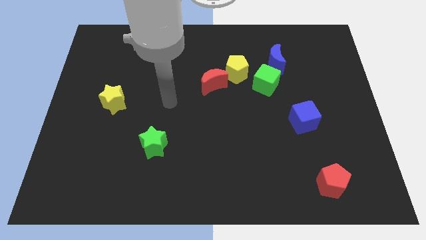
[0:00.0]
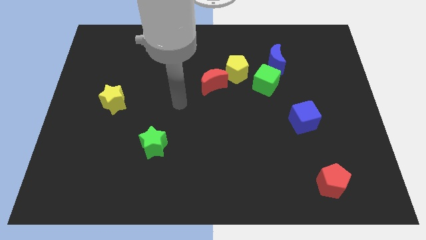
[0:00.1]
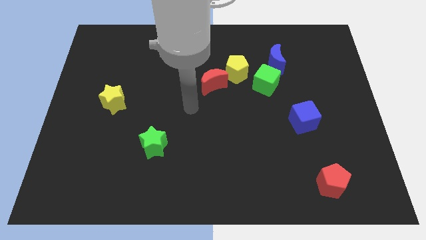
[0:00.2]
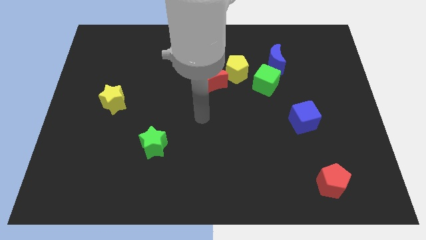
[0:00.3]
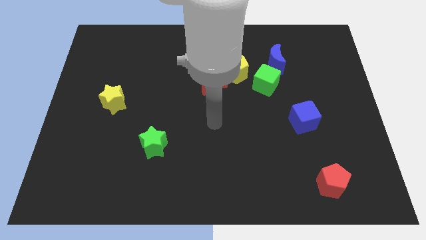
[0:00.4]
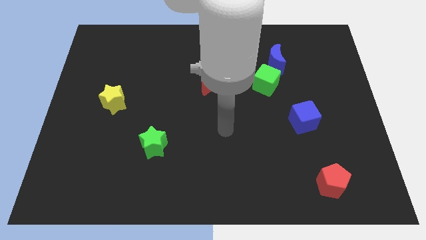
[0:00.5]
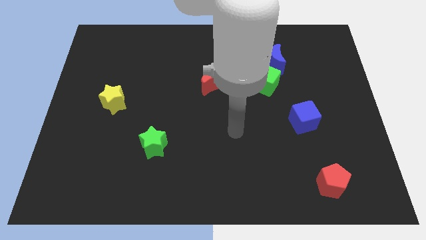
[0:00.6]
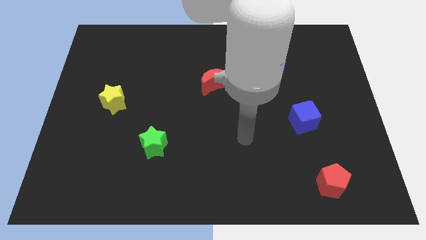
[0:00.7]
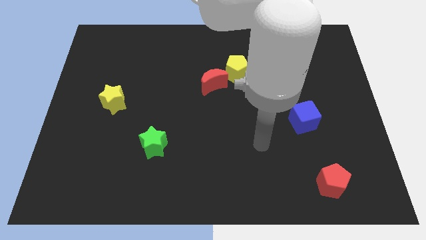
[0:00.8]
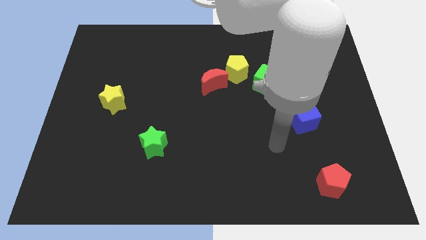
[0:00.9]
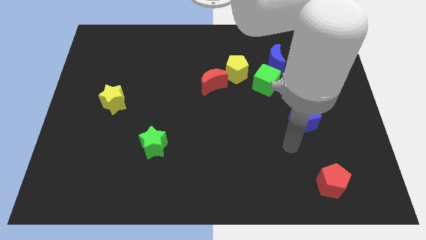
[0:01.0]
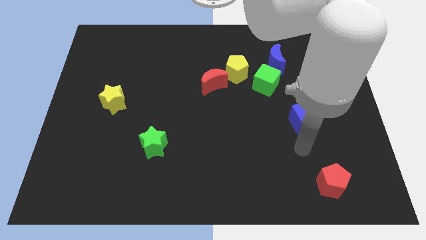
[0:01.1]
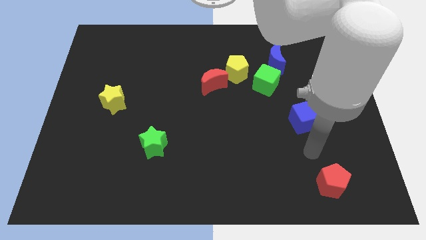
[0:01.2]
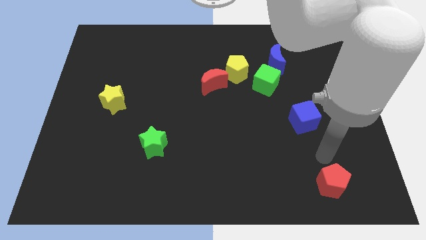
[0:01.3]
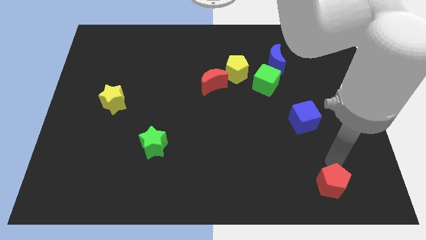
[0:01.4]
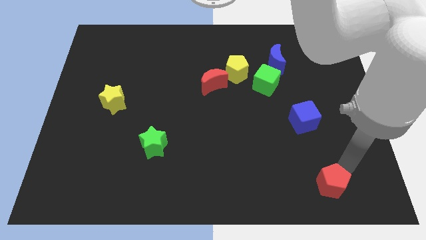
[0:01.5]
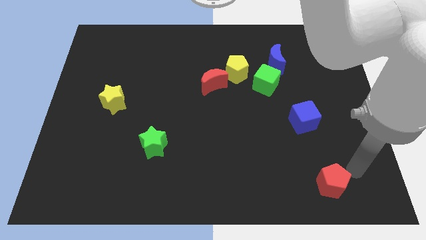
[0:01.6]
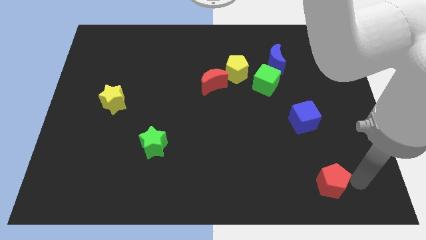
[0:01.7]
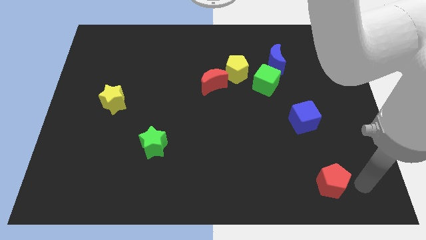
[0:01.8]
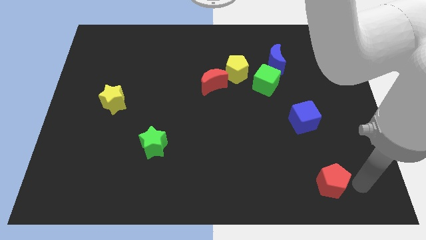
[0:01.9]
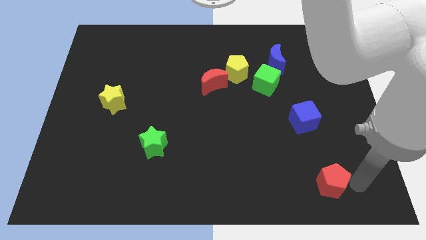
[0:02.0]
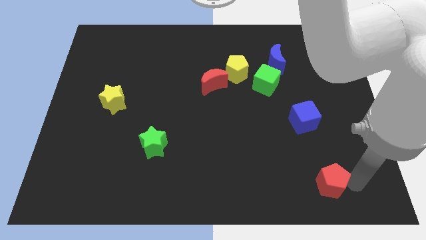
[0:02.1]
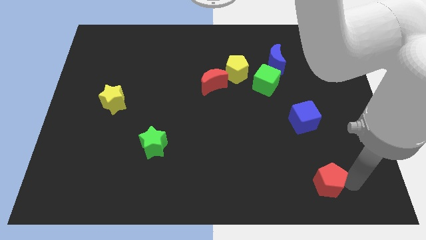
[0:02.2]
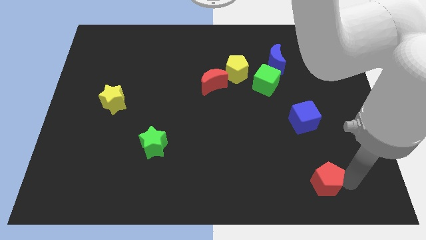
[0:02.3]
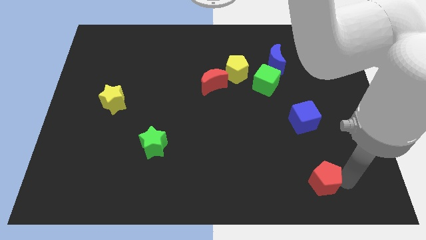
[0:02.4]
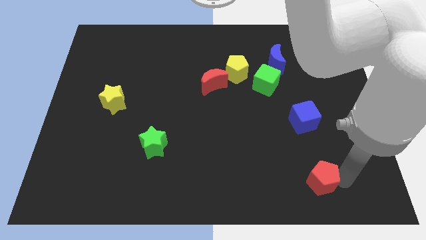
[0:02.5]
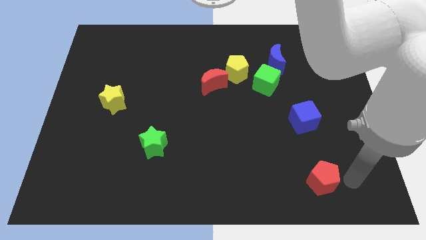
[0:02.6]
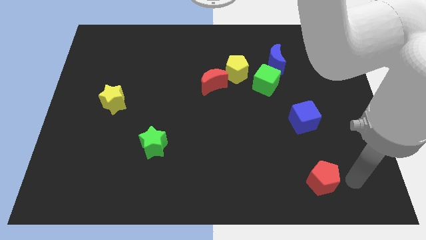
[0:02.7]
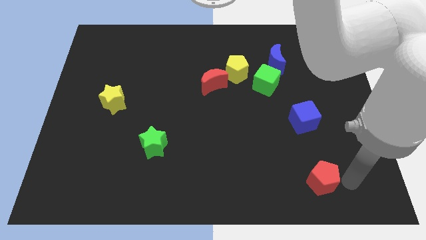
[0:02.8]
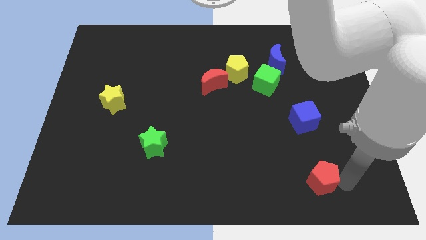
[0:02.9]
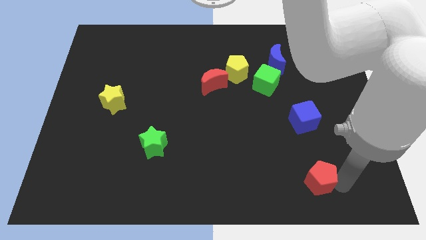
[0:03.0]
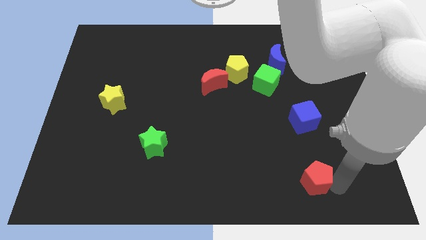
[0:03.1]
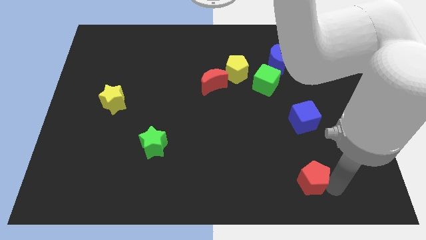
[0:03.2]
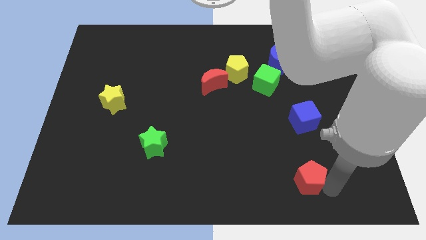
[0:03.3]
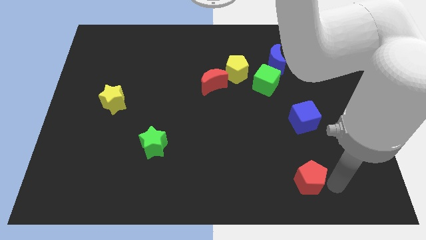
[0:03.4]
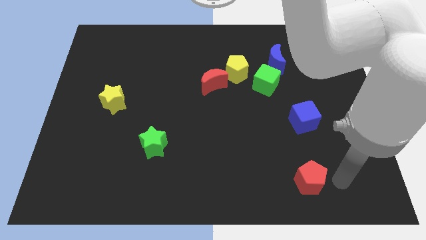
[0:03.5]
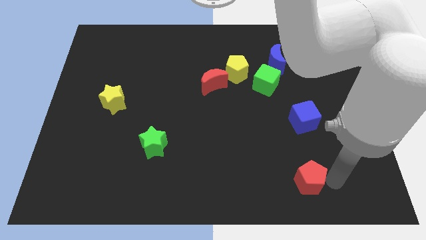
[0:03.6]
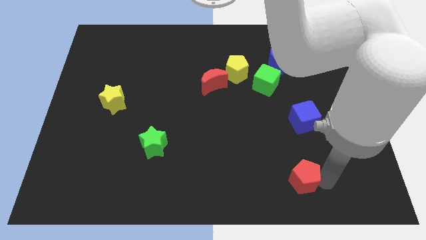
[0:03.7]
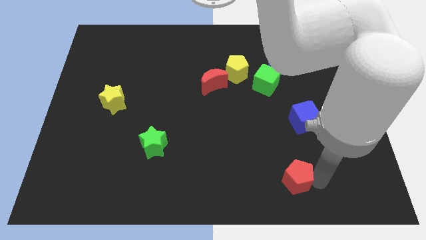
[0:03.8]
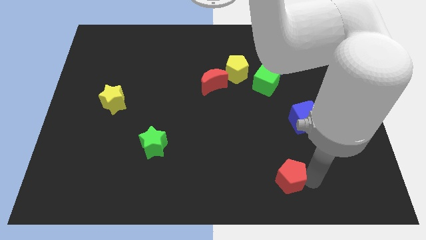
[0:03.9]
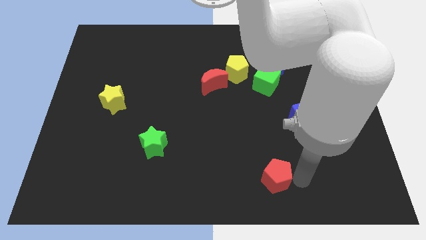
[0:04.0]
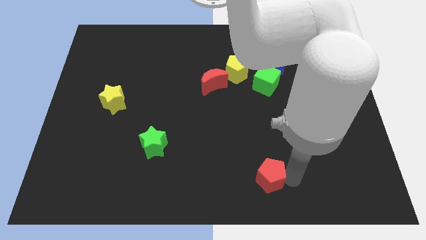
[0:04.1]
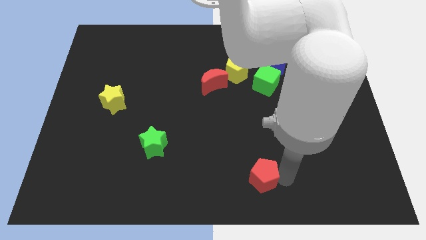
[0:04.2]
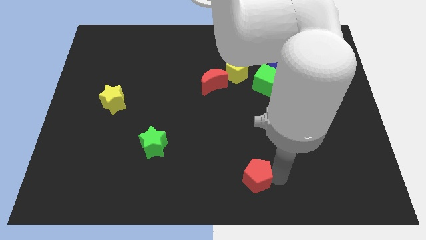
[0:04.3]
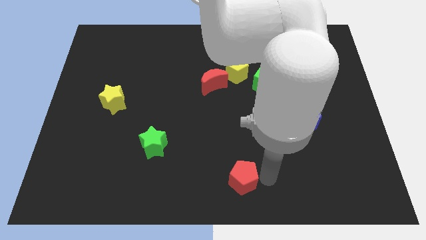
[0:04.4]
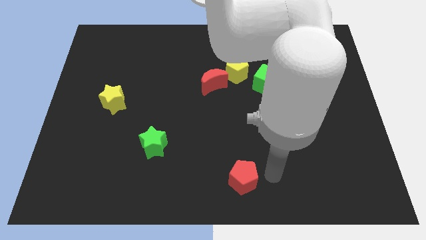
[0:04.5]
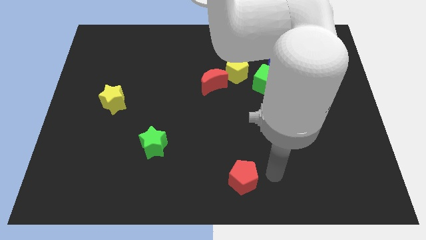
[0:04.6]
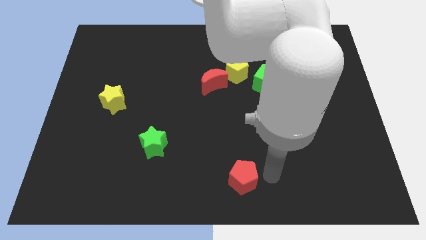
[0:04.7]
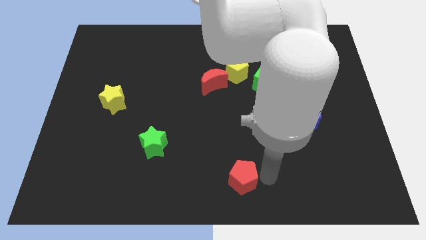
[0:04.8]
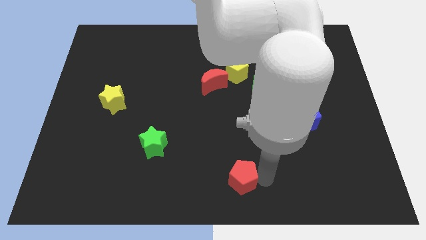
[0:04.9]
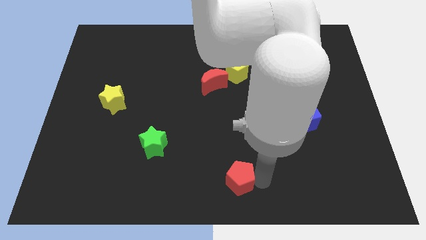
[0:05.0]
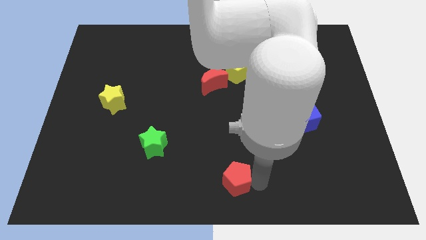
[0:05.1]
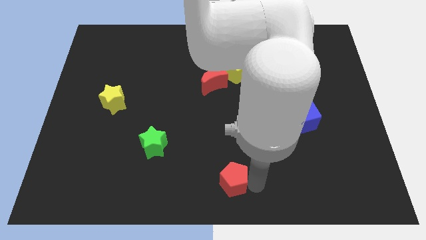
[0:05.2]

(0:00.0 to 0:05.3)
push the red pentagon left

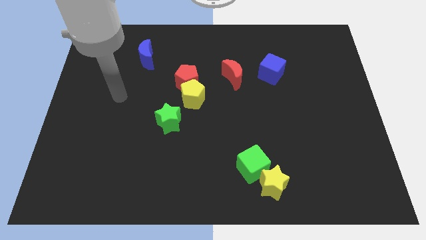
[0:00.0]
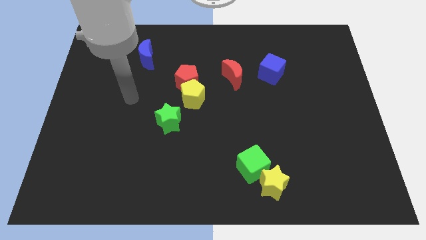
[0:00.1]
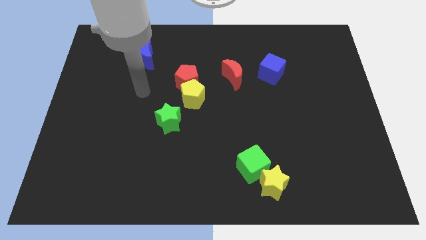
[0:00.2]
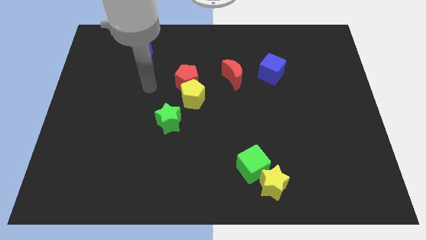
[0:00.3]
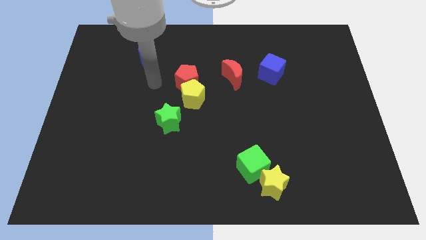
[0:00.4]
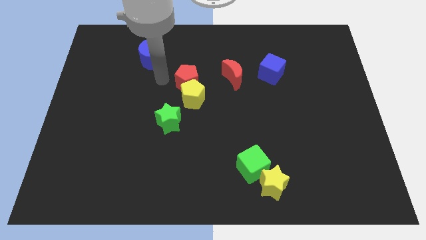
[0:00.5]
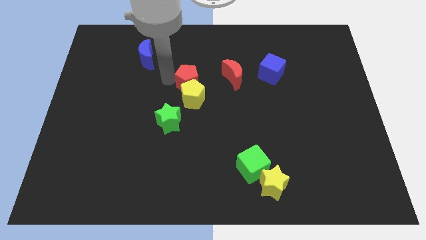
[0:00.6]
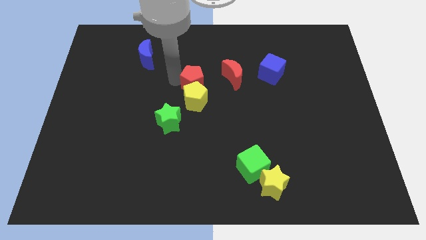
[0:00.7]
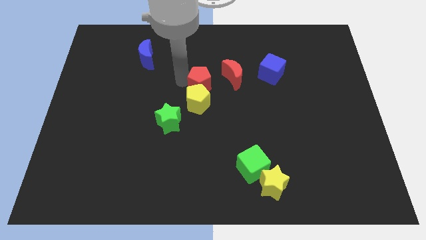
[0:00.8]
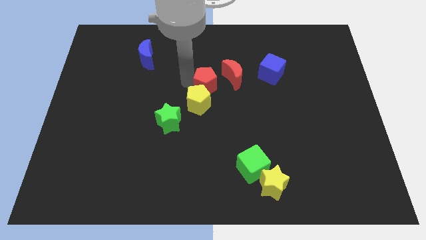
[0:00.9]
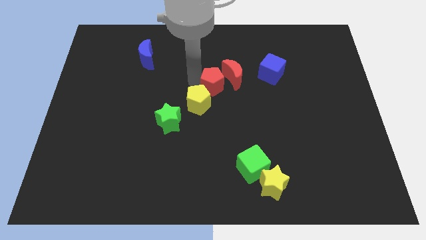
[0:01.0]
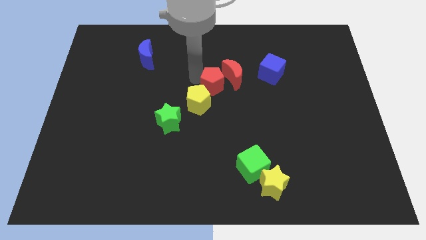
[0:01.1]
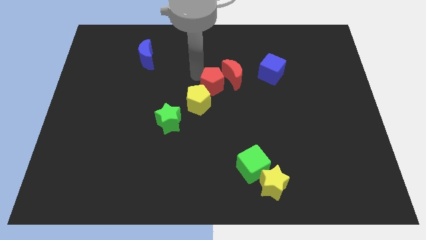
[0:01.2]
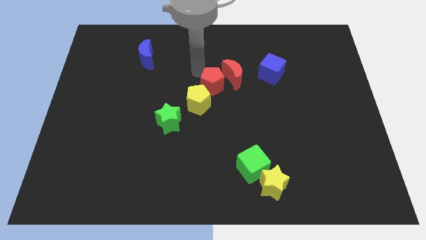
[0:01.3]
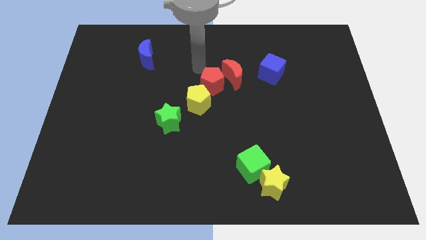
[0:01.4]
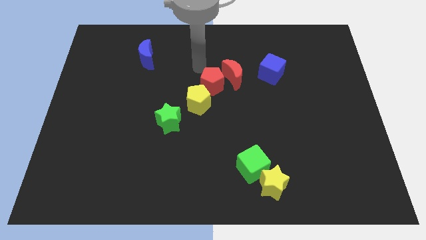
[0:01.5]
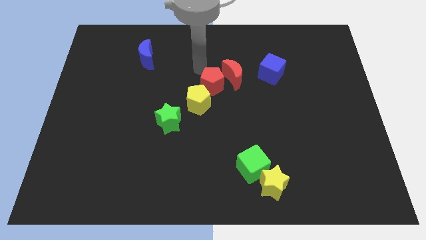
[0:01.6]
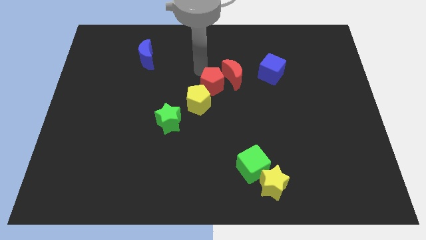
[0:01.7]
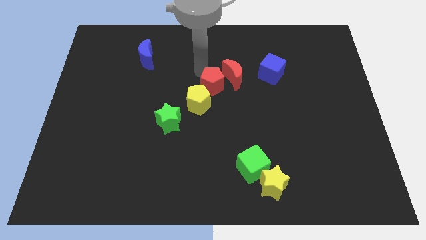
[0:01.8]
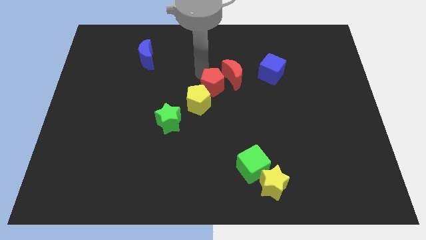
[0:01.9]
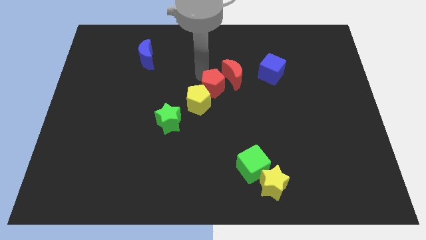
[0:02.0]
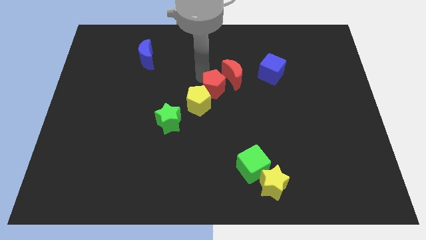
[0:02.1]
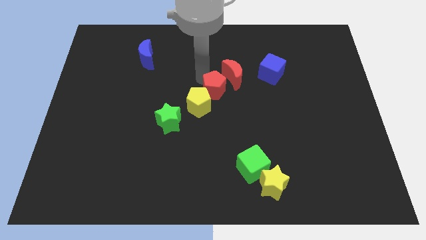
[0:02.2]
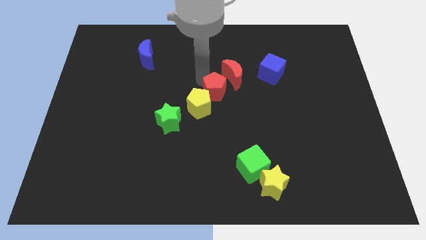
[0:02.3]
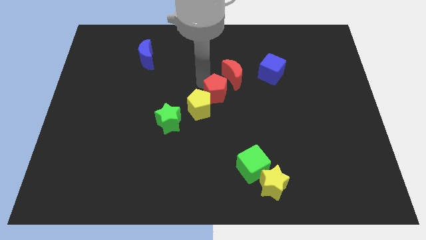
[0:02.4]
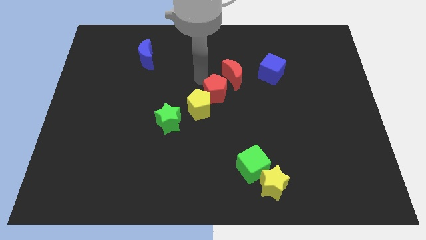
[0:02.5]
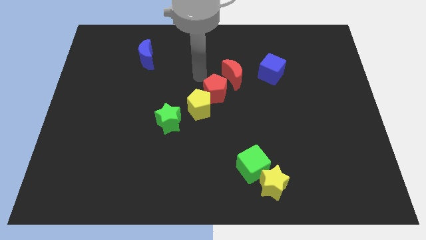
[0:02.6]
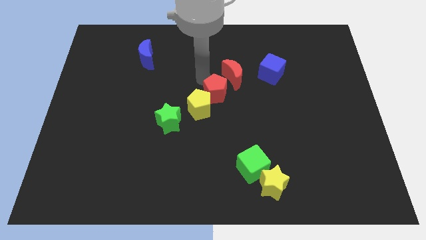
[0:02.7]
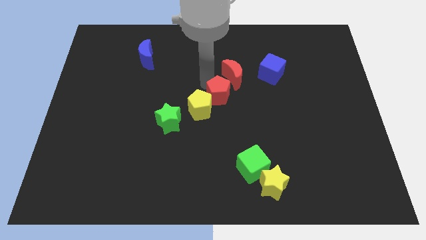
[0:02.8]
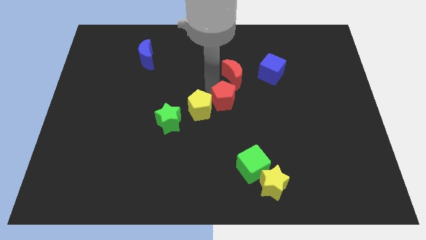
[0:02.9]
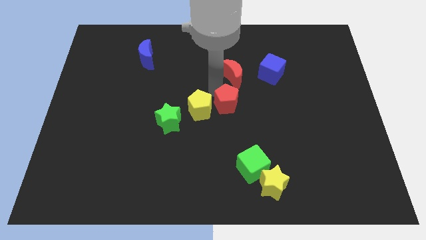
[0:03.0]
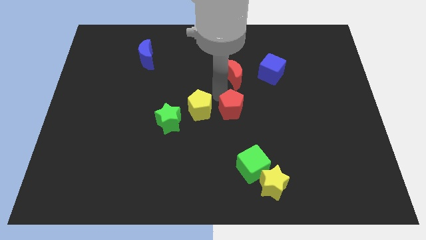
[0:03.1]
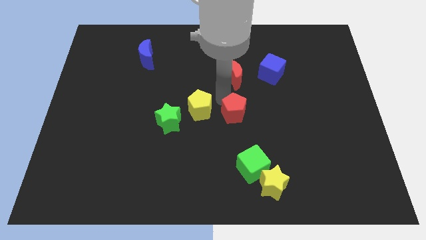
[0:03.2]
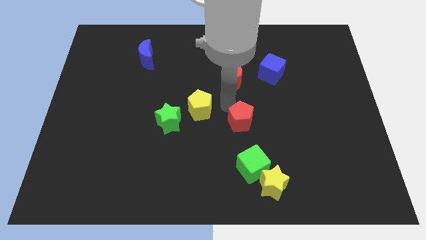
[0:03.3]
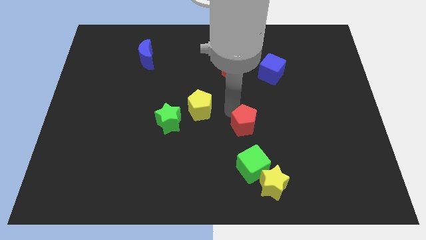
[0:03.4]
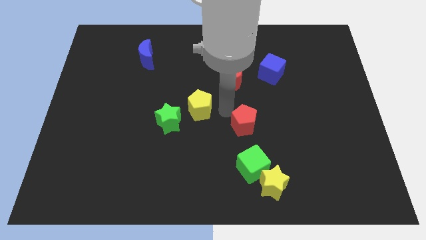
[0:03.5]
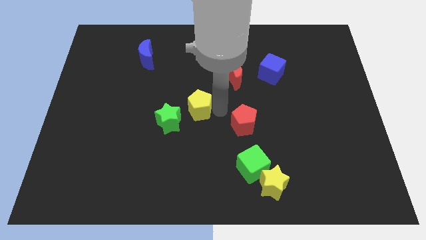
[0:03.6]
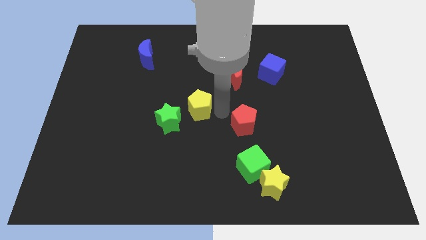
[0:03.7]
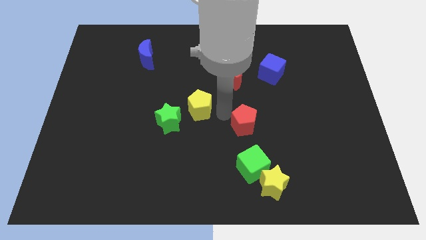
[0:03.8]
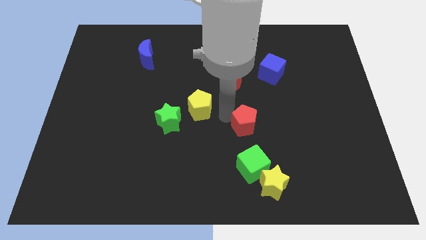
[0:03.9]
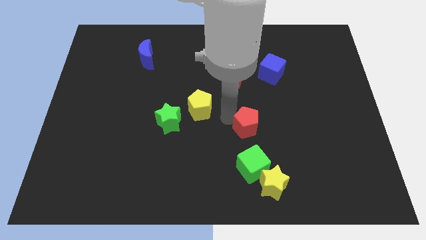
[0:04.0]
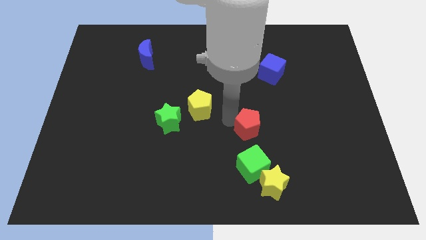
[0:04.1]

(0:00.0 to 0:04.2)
slide the red pentagon downwards and right diagonally
